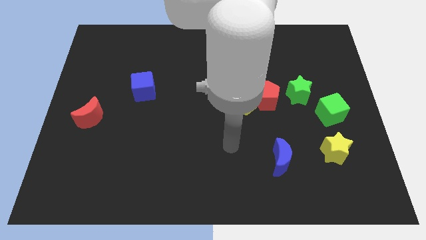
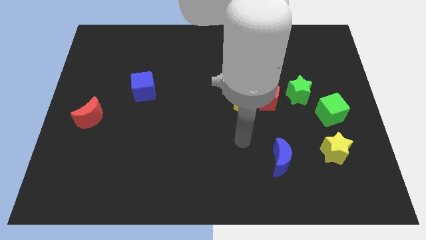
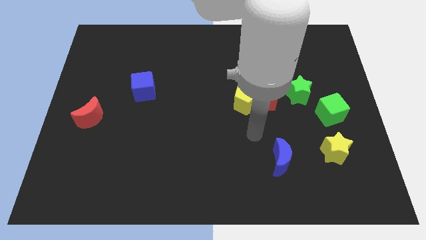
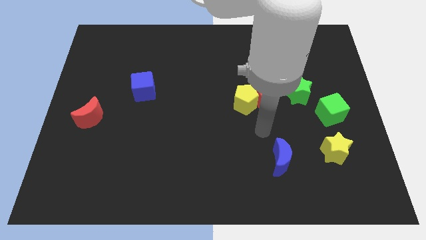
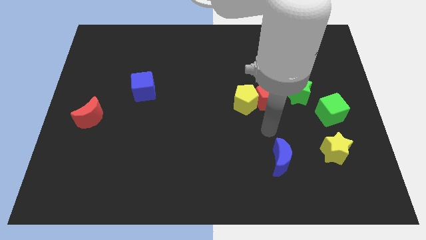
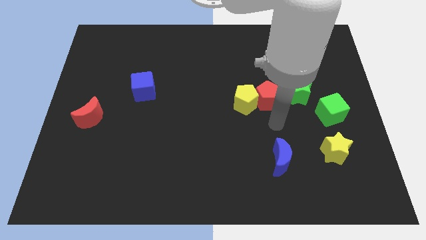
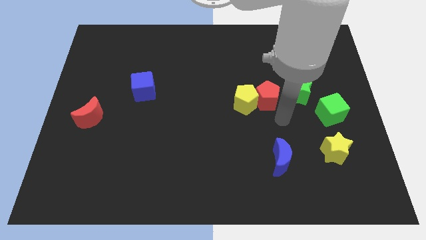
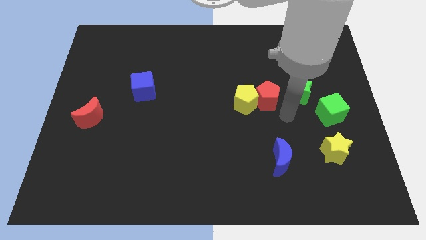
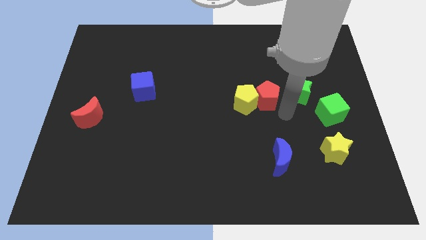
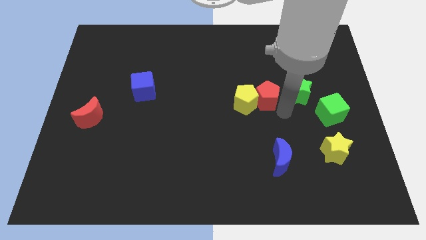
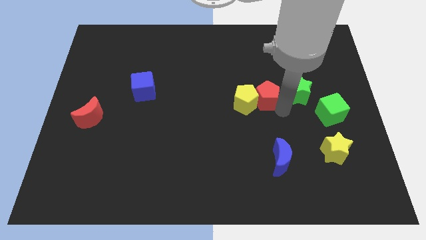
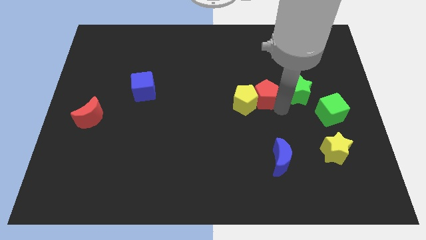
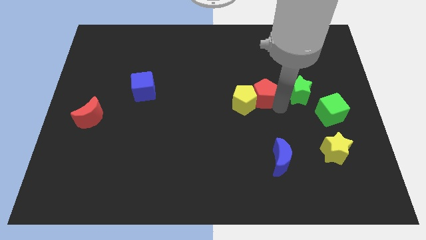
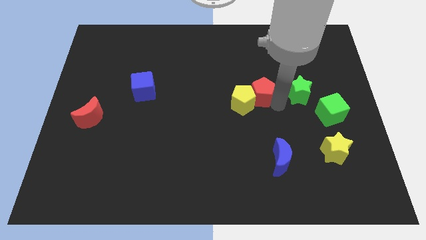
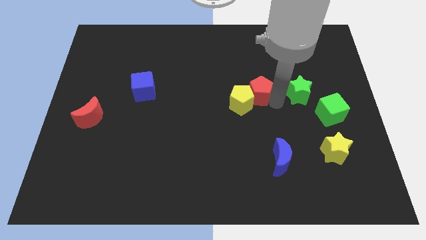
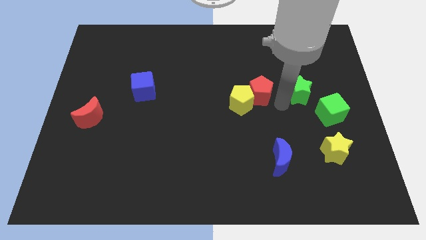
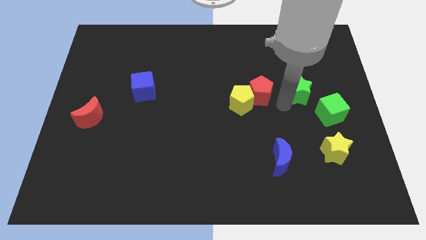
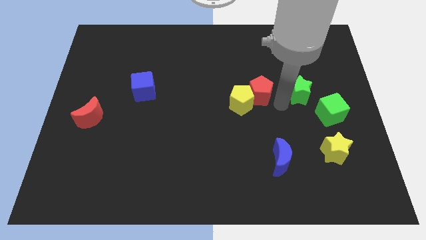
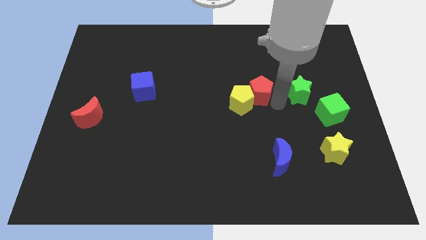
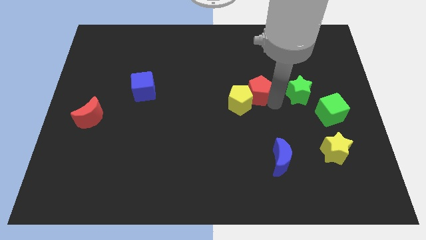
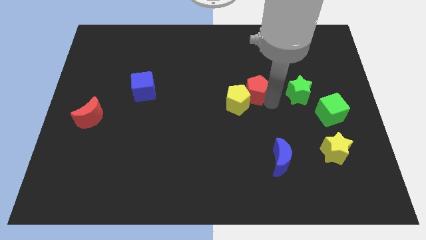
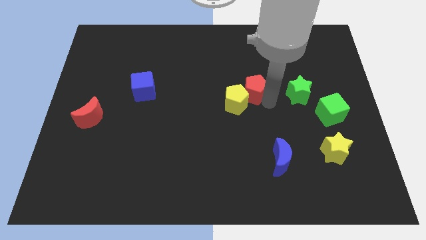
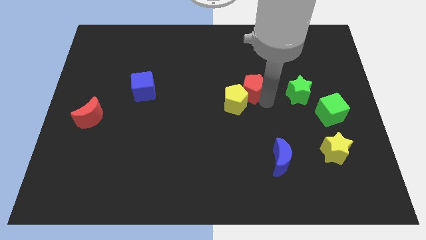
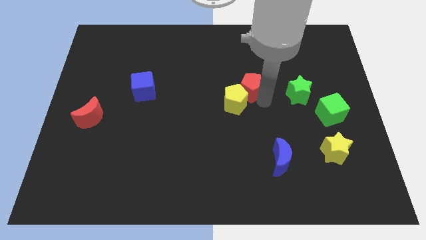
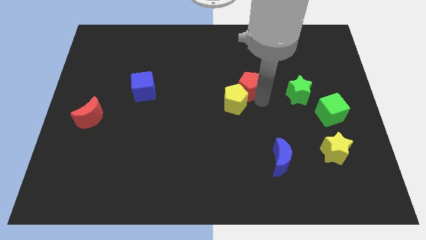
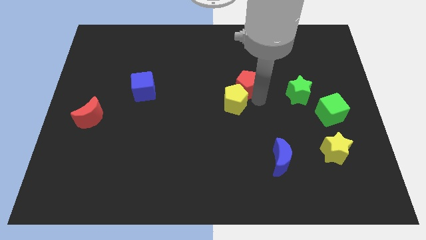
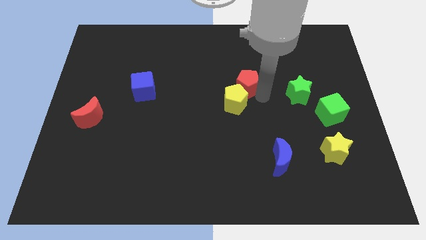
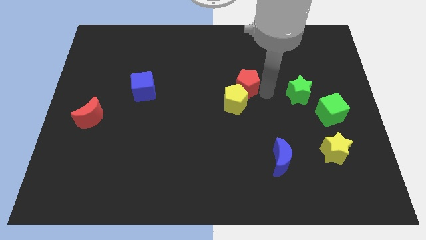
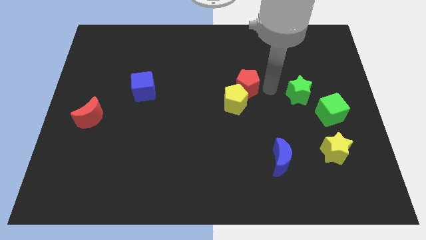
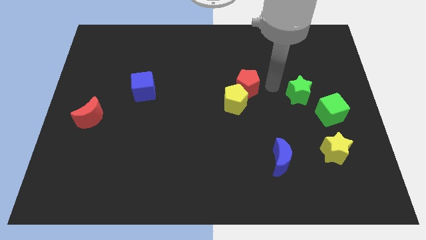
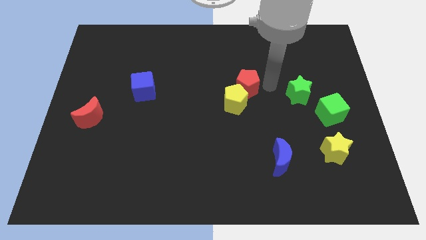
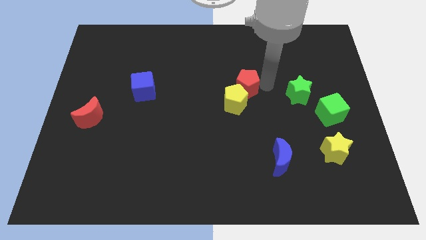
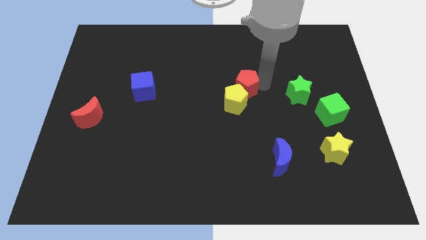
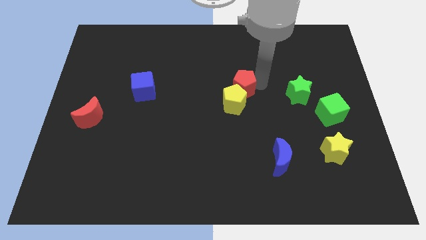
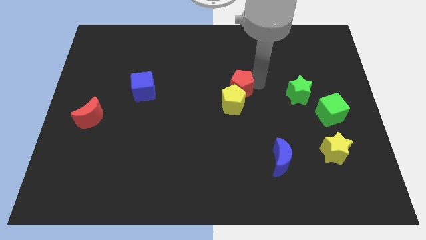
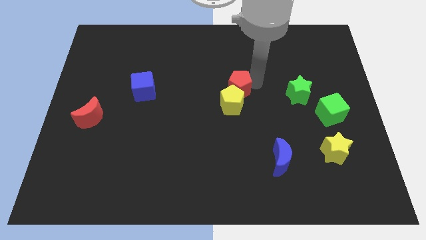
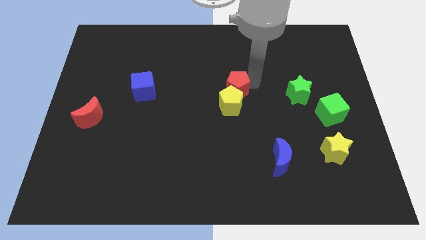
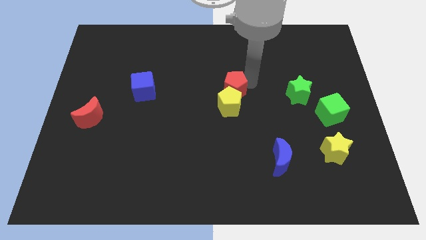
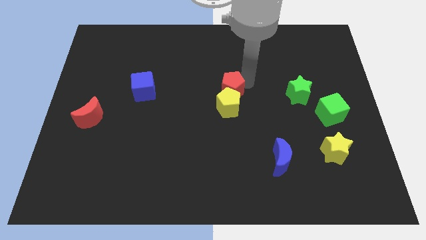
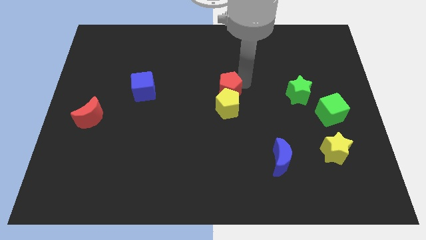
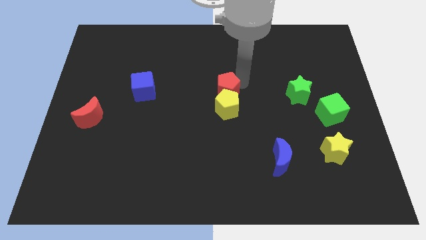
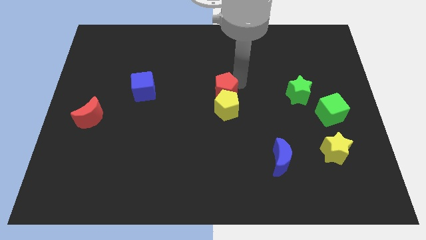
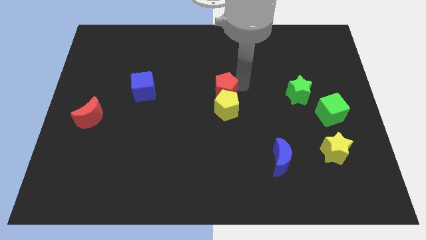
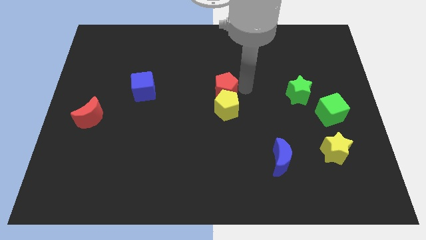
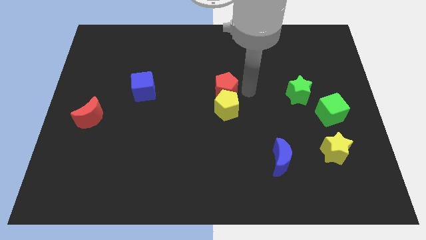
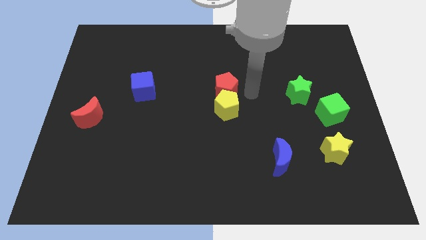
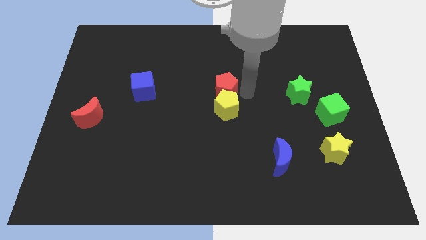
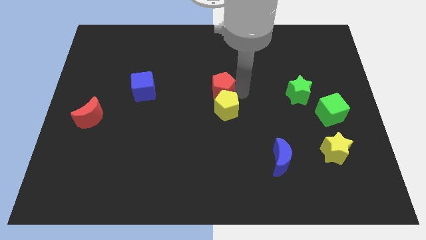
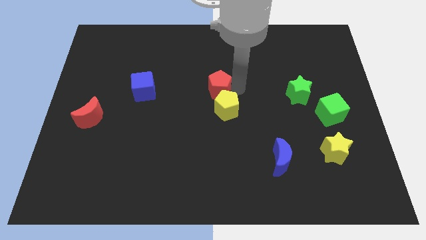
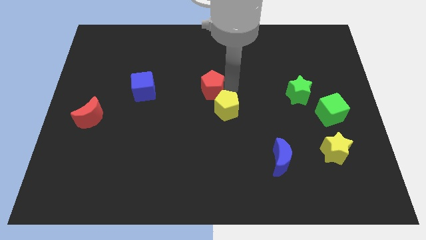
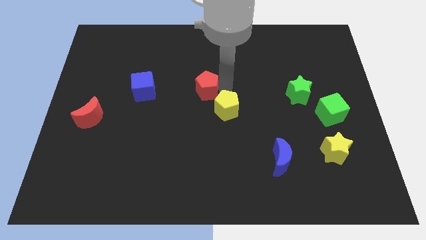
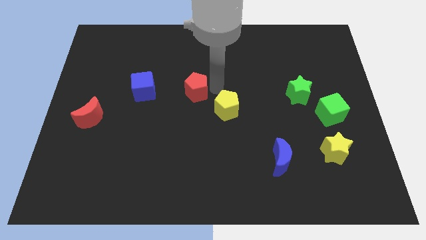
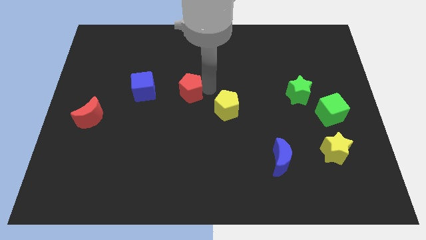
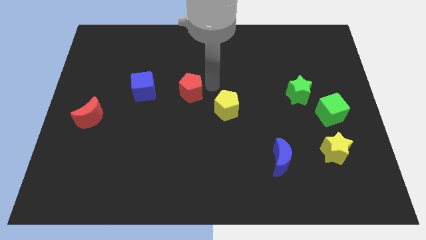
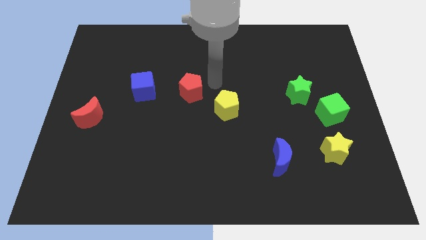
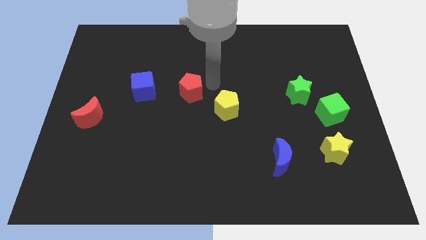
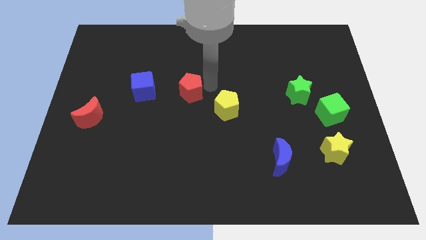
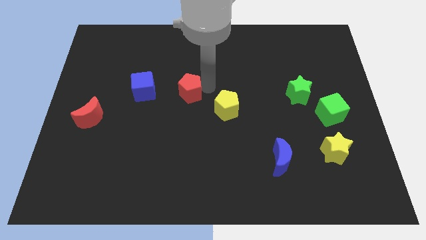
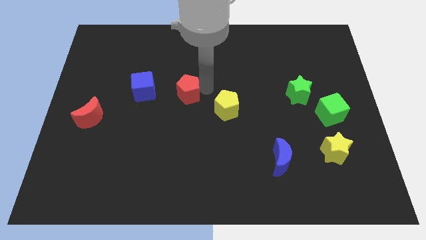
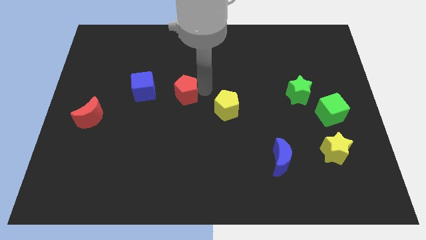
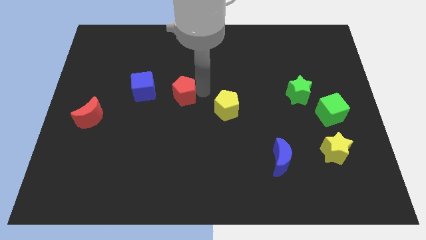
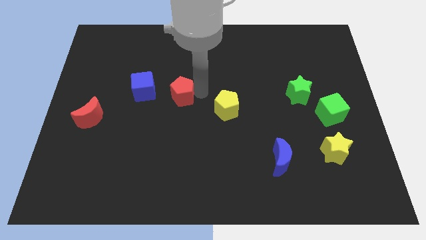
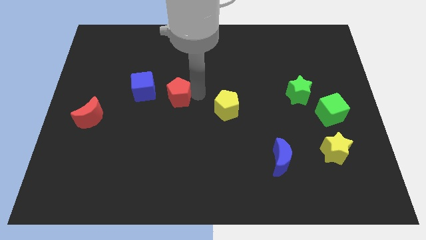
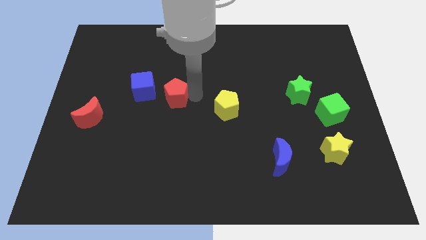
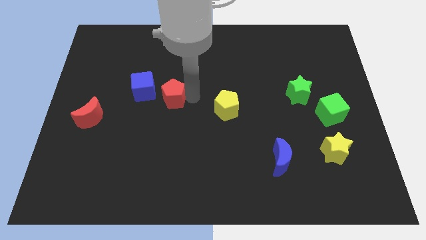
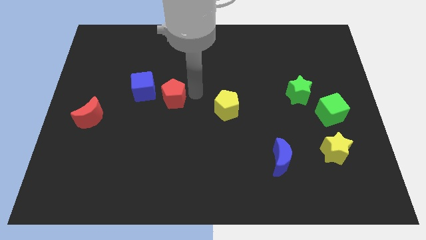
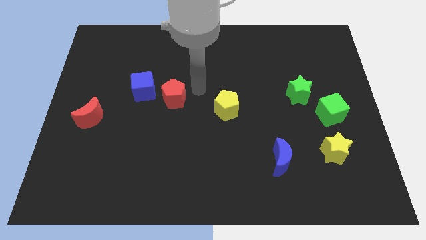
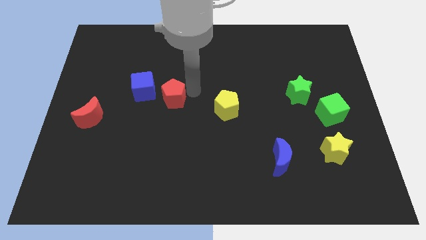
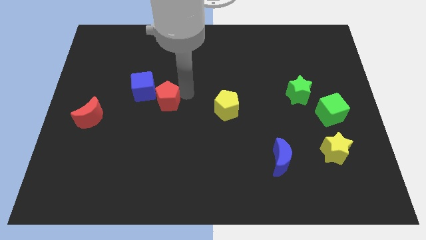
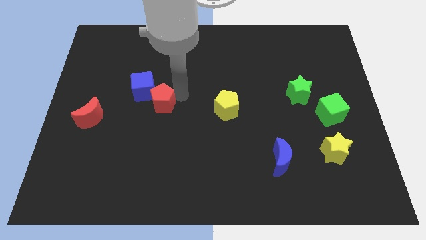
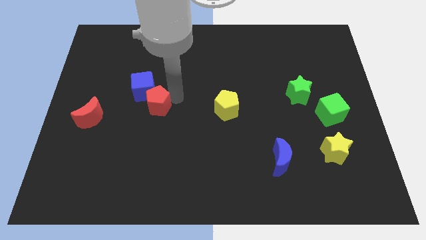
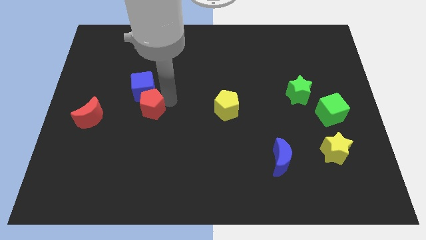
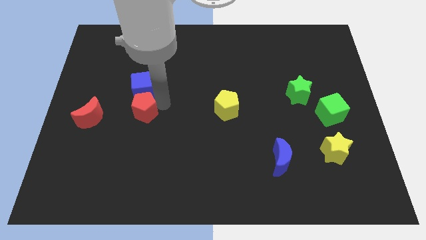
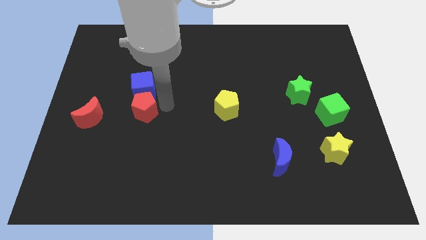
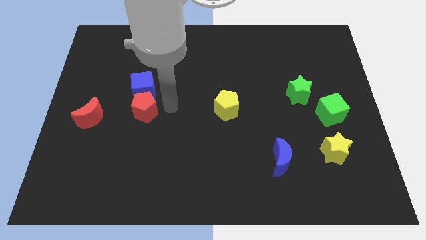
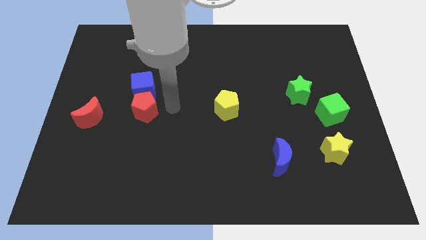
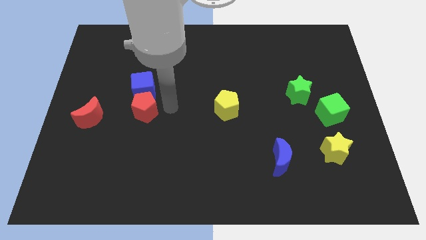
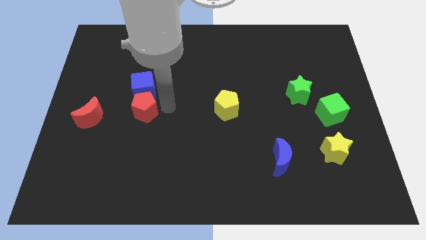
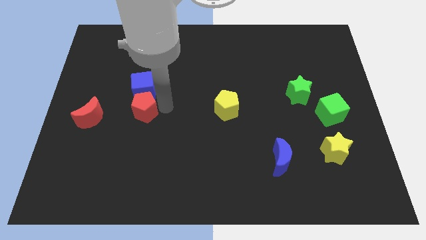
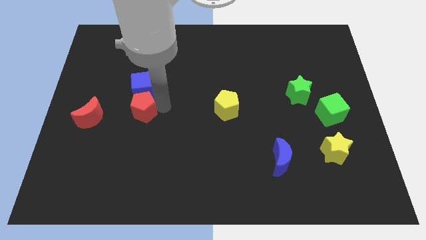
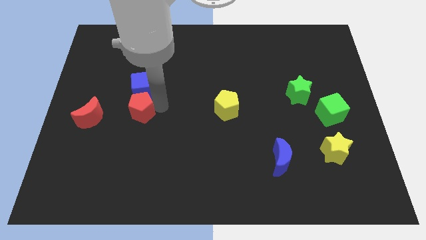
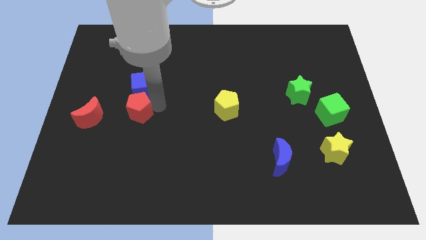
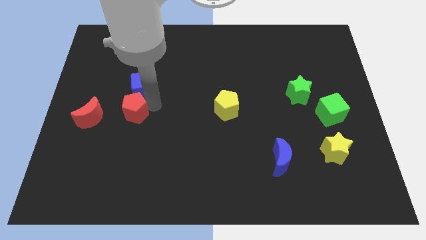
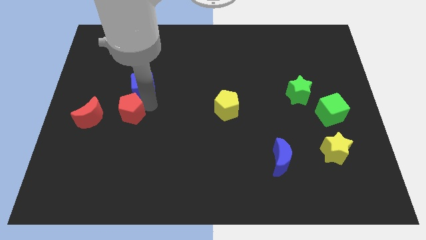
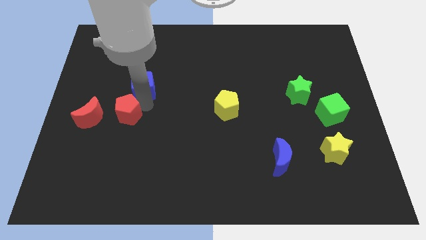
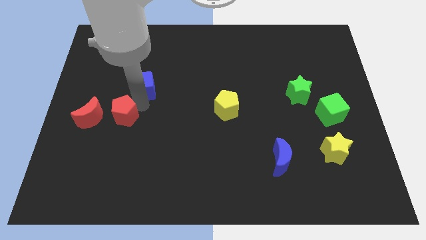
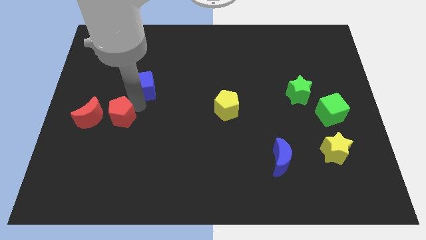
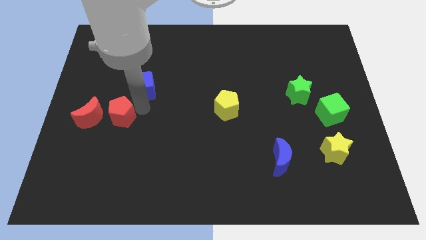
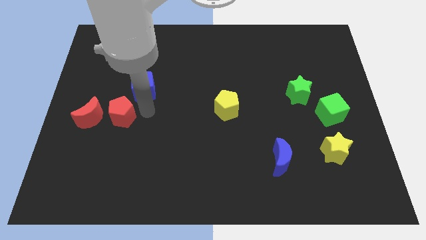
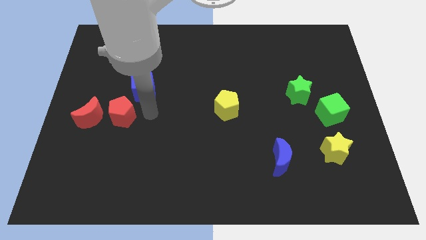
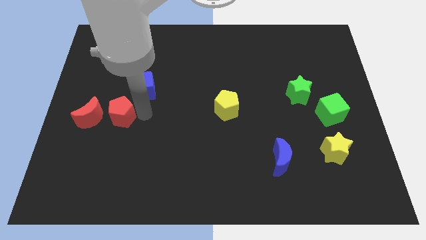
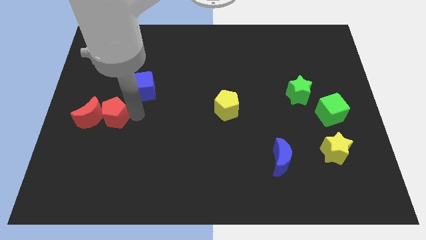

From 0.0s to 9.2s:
put the red pentagon next to the red moon
